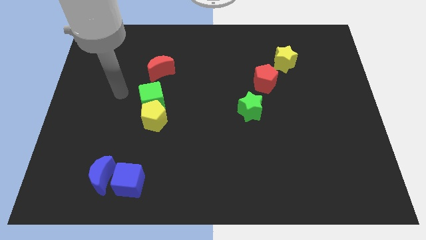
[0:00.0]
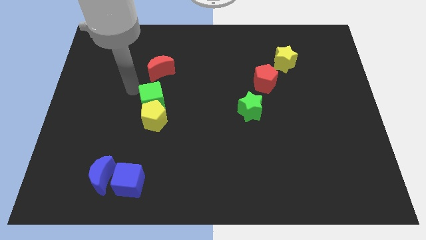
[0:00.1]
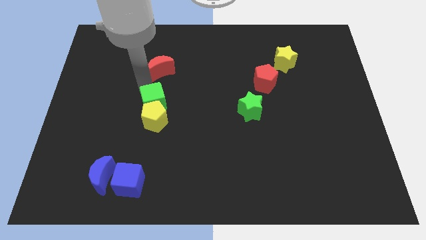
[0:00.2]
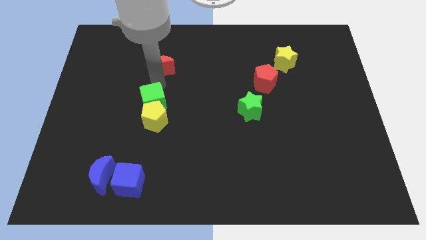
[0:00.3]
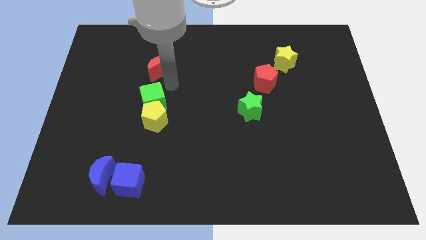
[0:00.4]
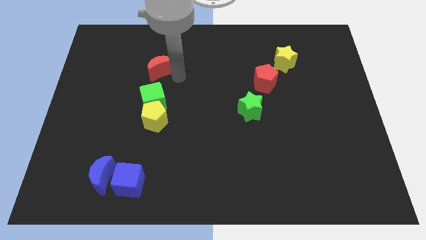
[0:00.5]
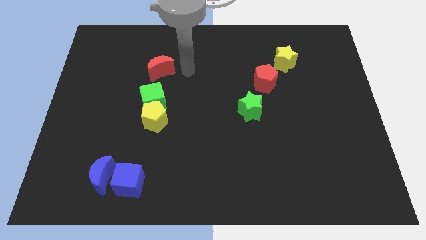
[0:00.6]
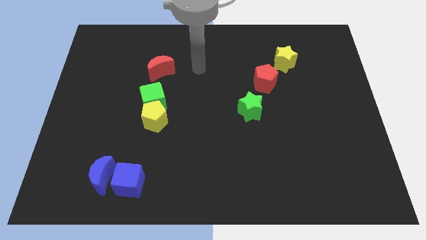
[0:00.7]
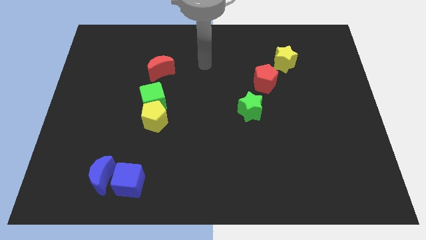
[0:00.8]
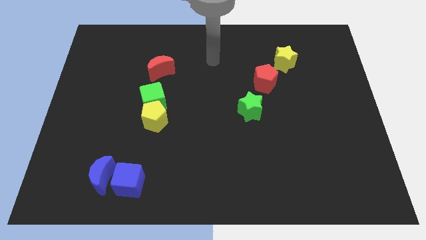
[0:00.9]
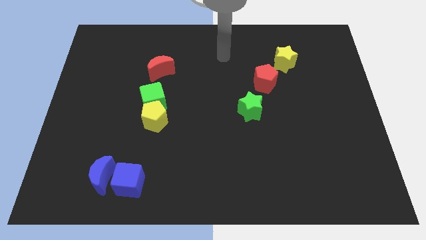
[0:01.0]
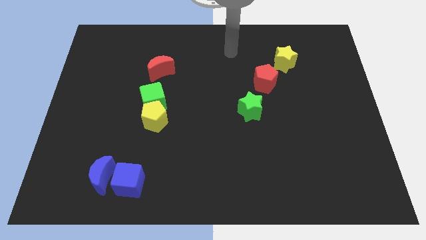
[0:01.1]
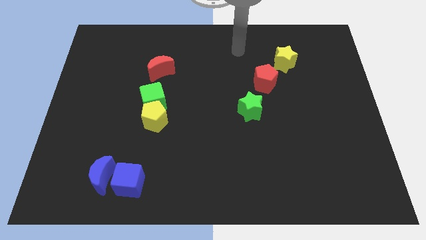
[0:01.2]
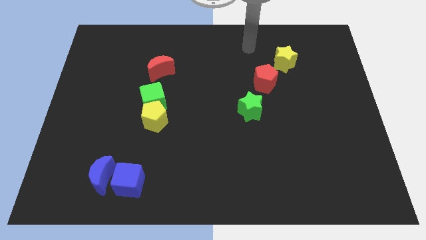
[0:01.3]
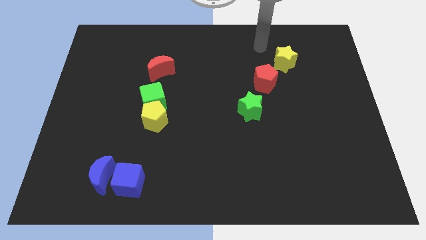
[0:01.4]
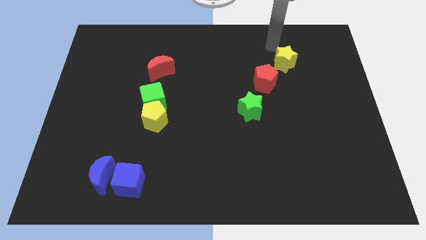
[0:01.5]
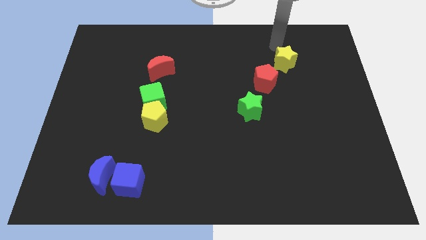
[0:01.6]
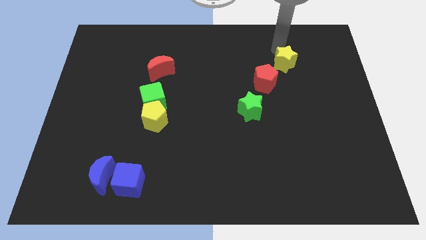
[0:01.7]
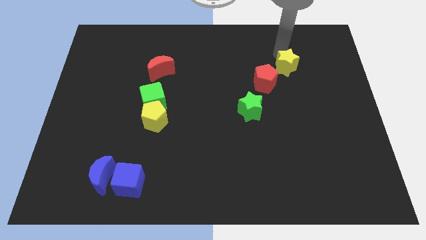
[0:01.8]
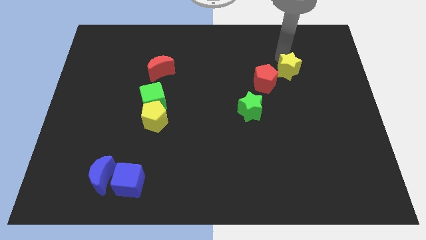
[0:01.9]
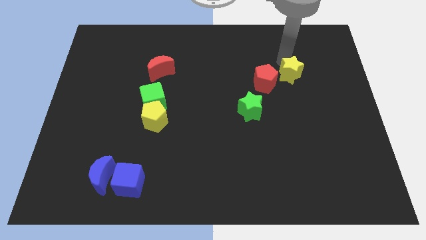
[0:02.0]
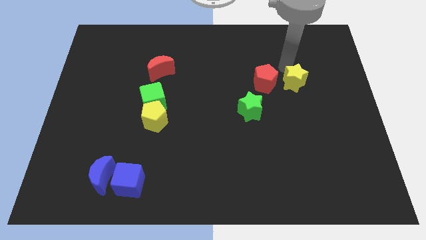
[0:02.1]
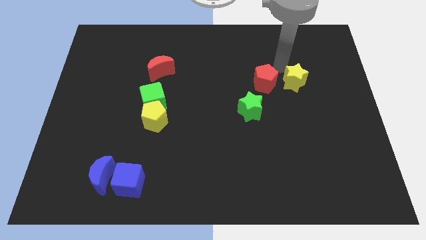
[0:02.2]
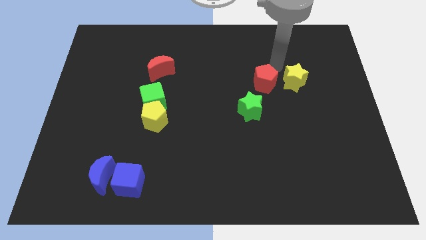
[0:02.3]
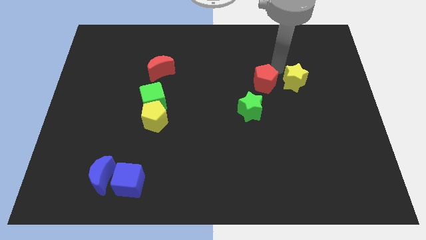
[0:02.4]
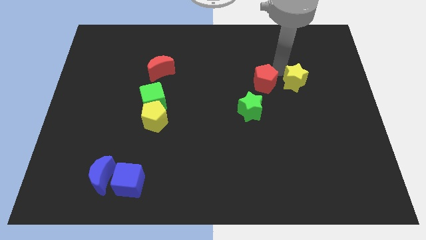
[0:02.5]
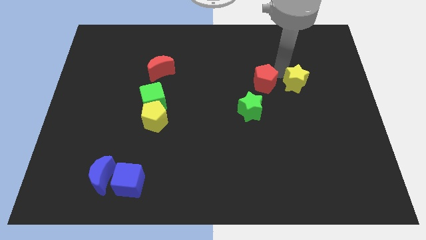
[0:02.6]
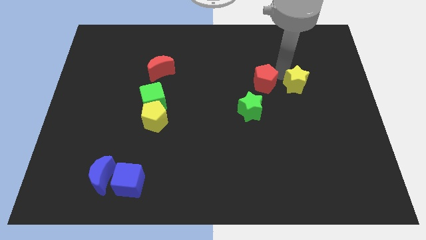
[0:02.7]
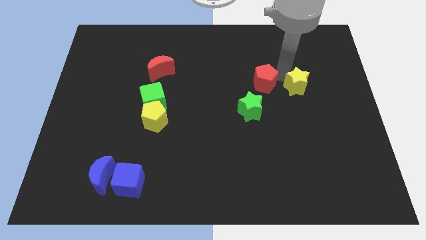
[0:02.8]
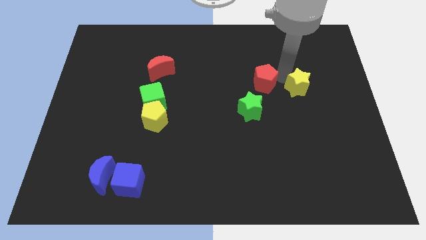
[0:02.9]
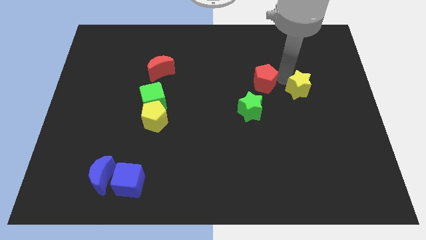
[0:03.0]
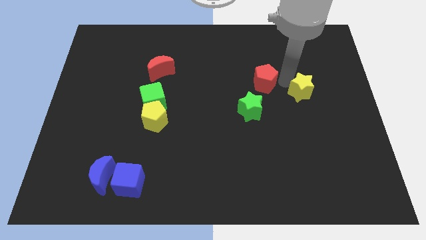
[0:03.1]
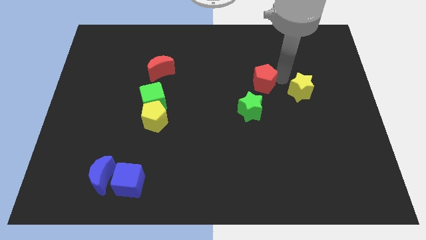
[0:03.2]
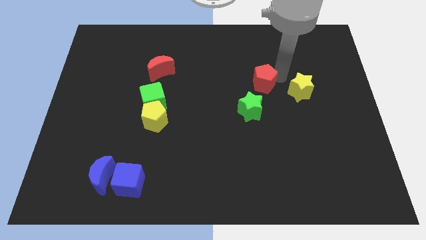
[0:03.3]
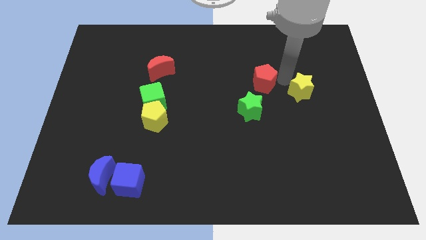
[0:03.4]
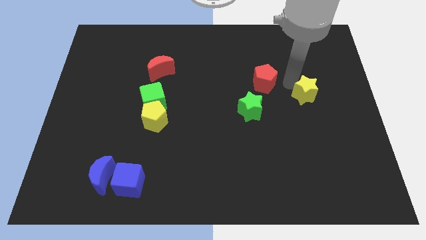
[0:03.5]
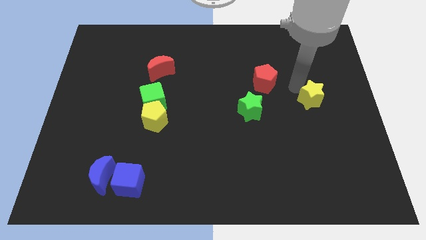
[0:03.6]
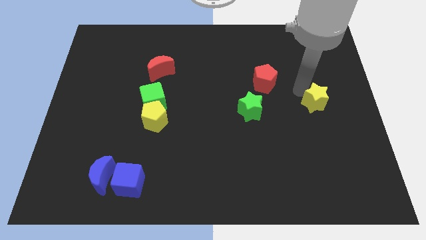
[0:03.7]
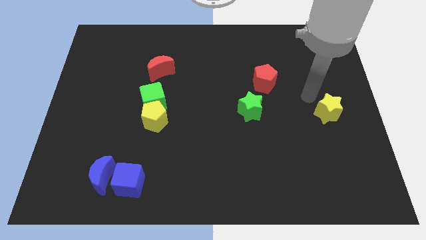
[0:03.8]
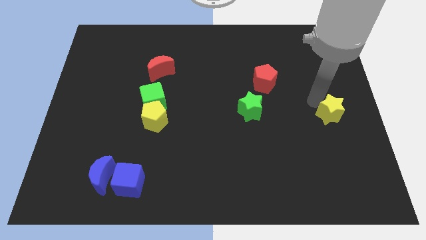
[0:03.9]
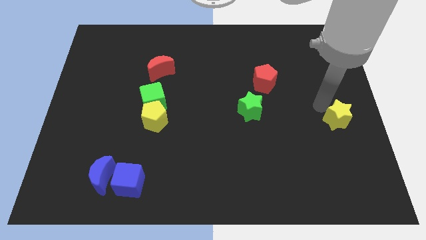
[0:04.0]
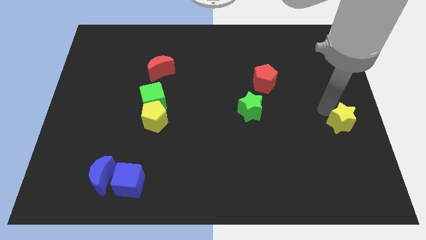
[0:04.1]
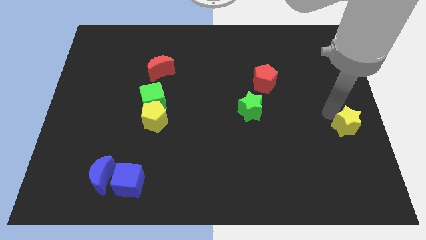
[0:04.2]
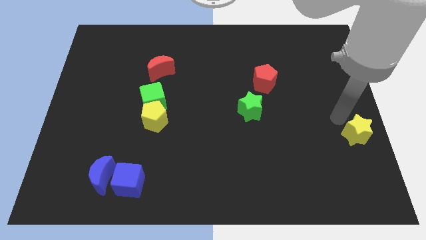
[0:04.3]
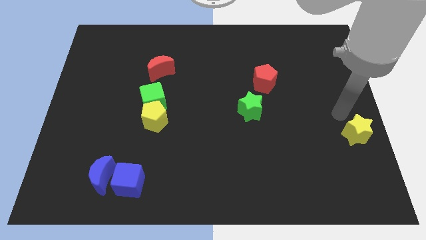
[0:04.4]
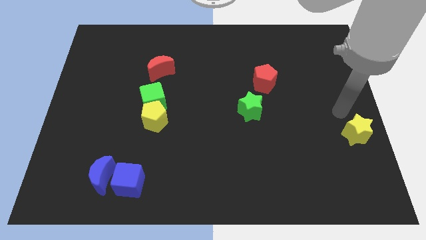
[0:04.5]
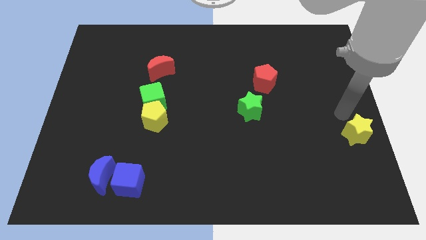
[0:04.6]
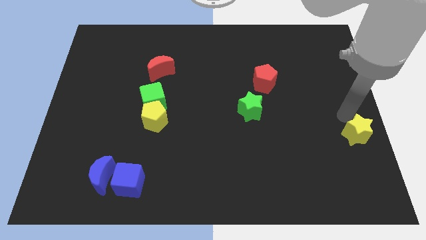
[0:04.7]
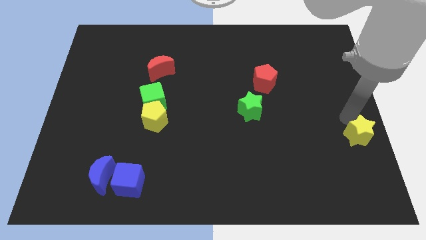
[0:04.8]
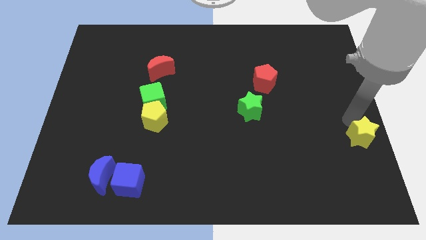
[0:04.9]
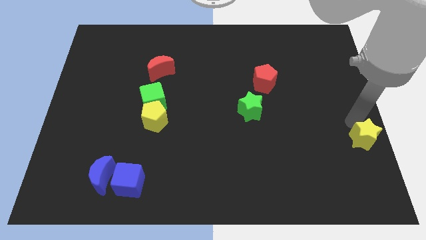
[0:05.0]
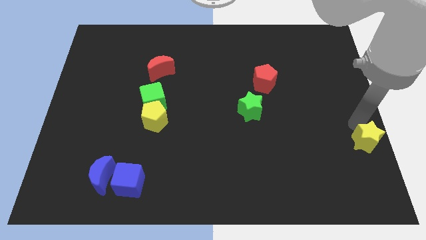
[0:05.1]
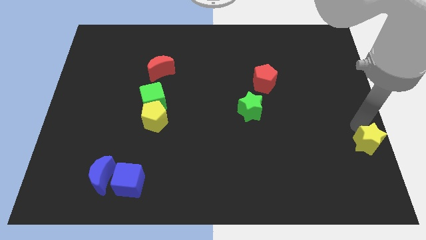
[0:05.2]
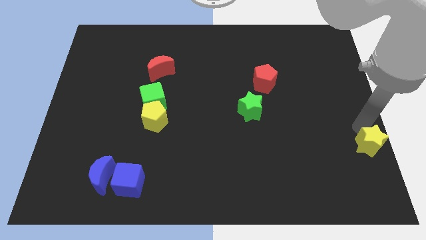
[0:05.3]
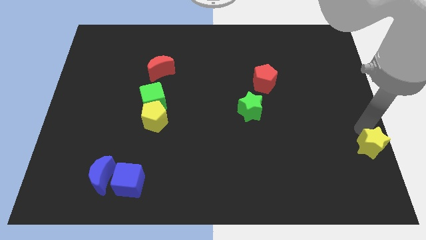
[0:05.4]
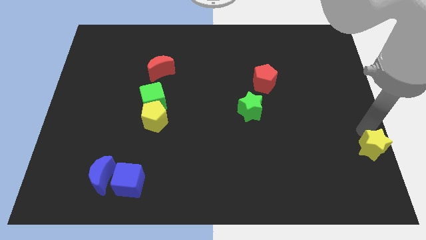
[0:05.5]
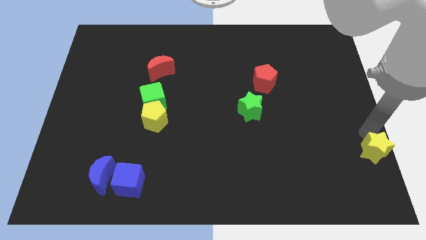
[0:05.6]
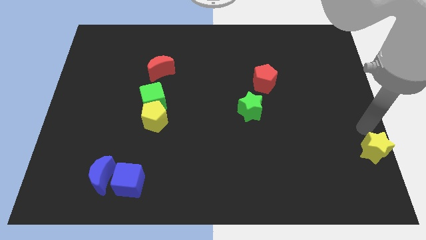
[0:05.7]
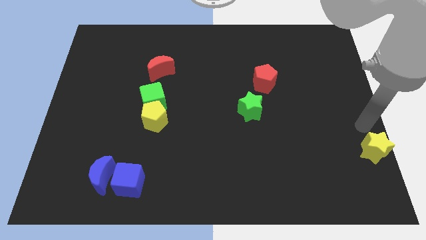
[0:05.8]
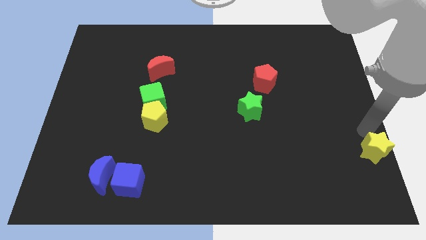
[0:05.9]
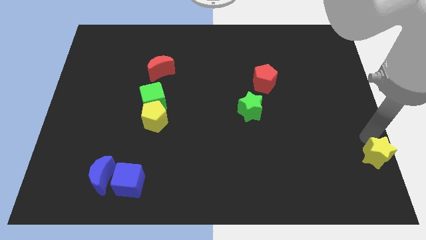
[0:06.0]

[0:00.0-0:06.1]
push the yellow star to the bottom right
